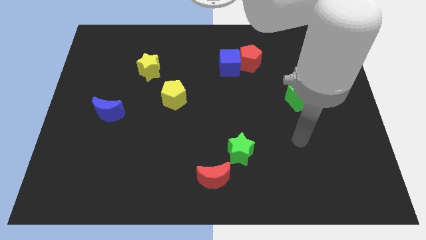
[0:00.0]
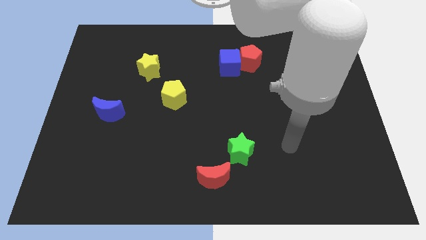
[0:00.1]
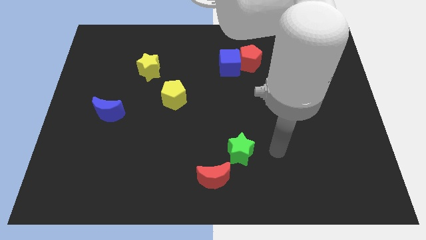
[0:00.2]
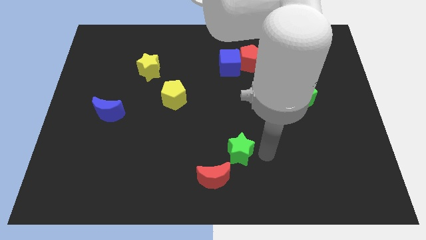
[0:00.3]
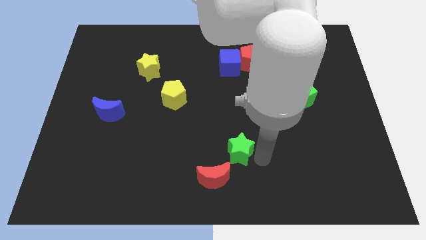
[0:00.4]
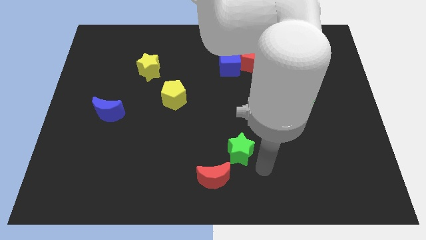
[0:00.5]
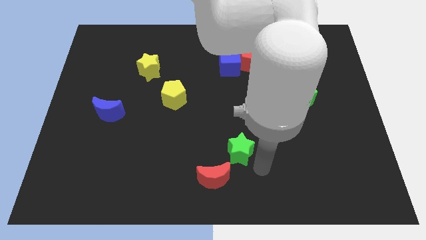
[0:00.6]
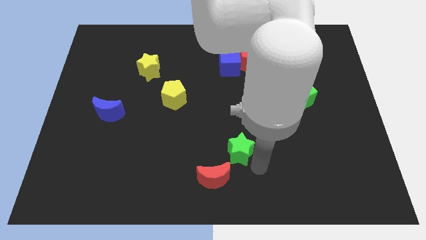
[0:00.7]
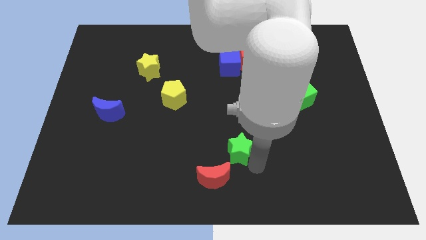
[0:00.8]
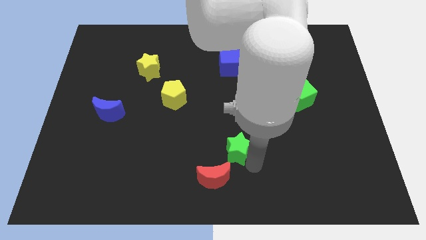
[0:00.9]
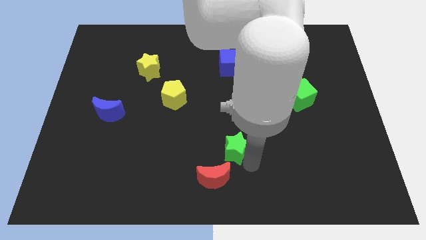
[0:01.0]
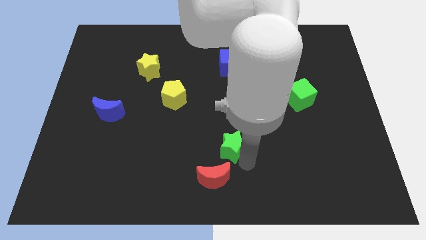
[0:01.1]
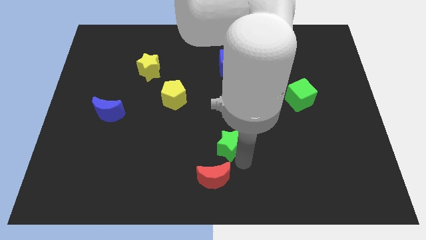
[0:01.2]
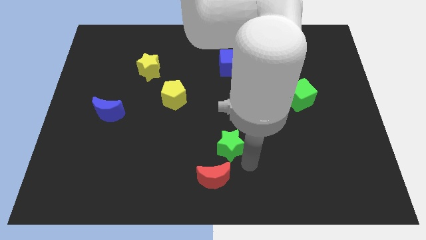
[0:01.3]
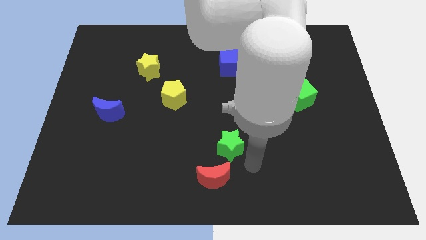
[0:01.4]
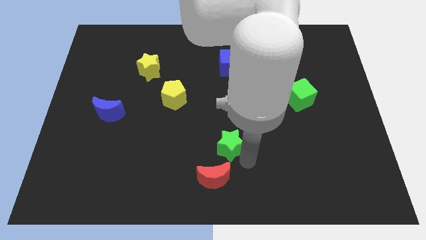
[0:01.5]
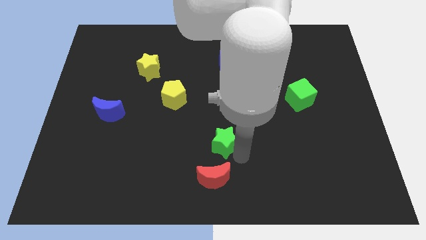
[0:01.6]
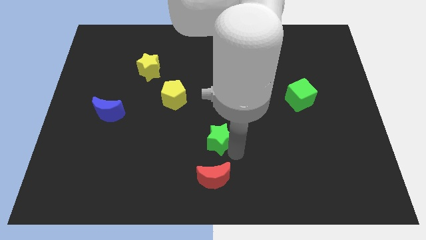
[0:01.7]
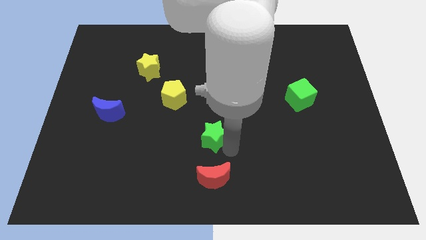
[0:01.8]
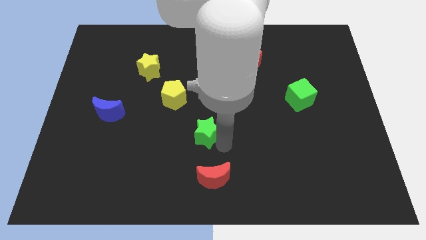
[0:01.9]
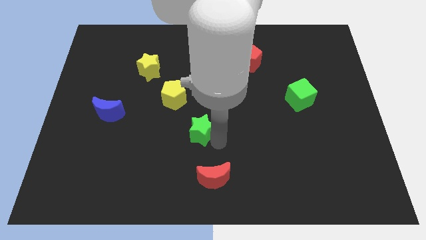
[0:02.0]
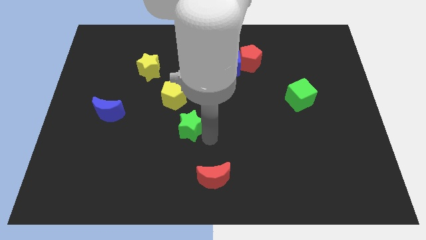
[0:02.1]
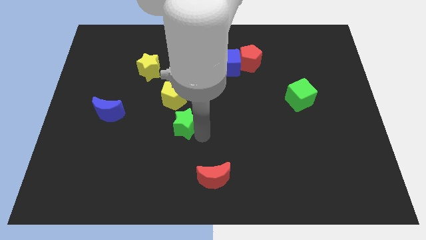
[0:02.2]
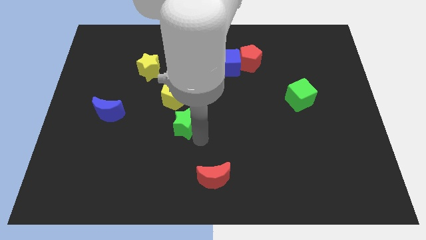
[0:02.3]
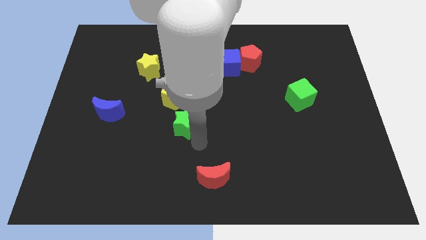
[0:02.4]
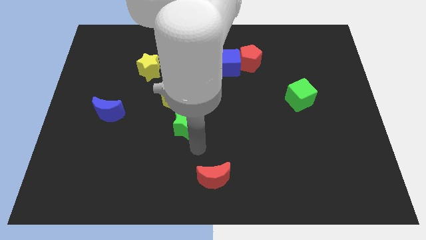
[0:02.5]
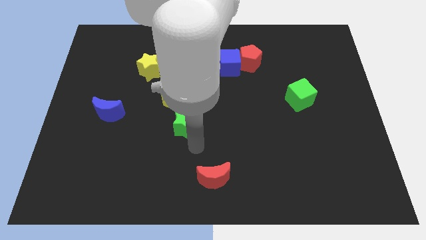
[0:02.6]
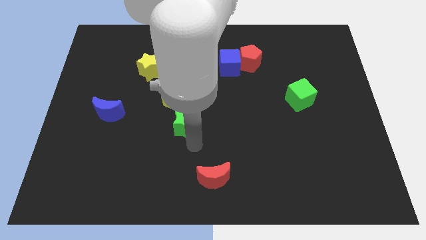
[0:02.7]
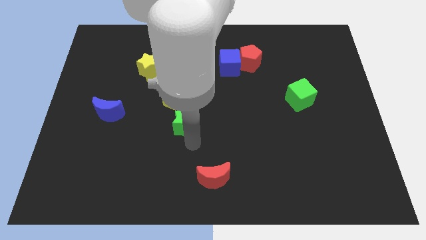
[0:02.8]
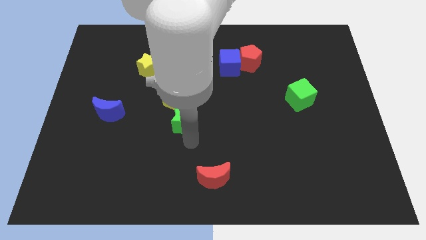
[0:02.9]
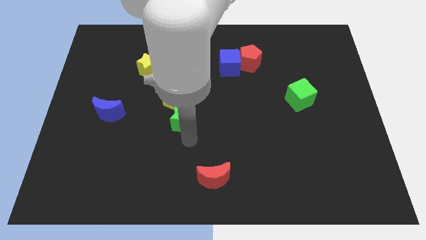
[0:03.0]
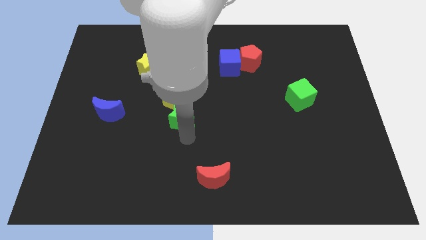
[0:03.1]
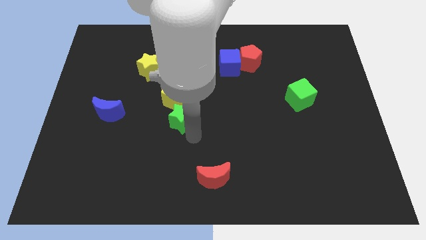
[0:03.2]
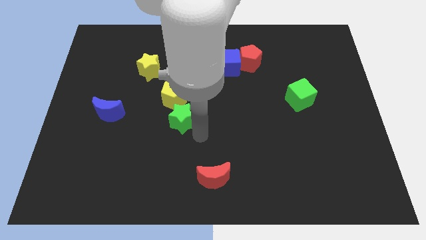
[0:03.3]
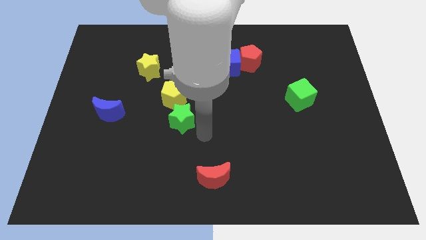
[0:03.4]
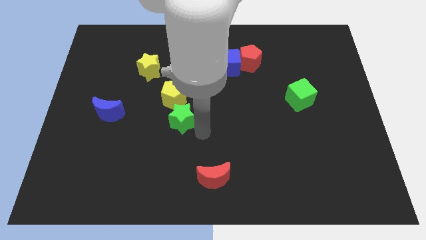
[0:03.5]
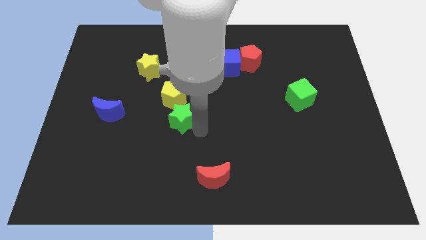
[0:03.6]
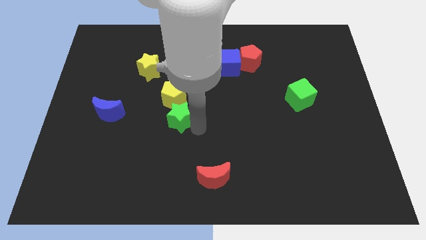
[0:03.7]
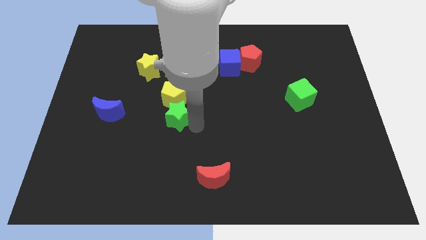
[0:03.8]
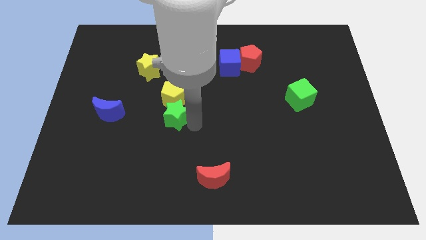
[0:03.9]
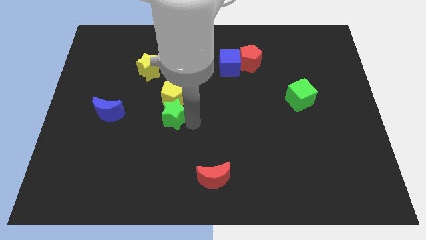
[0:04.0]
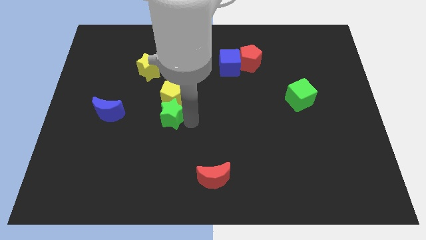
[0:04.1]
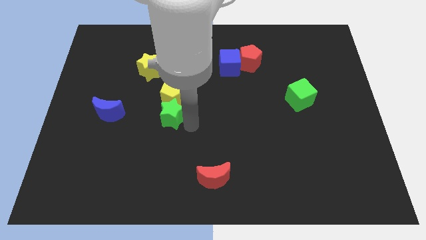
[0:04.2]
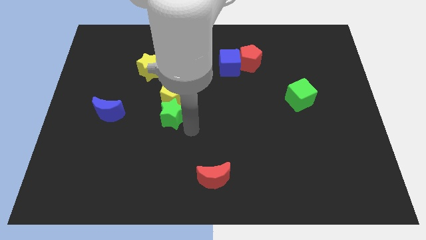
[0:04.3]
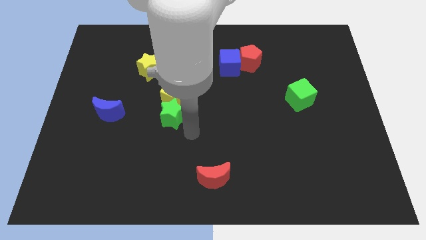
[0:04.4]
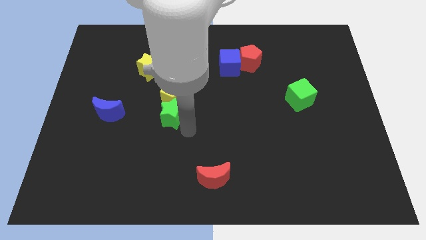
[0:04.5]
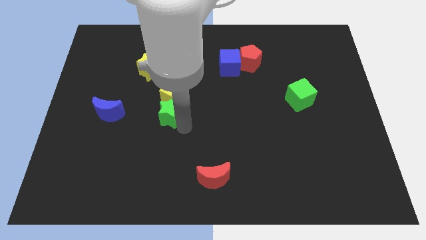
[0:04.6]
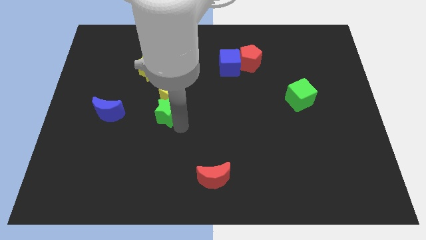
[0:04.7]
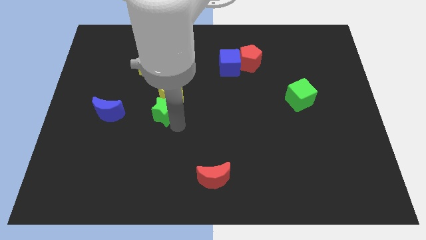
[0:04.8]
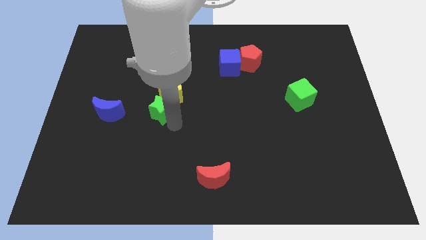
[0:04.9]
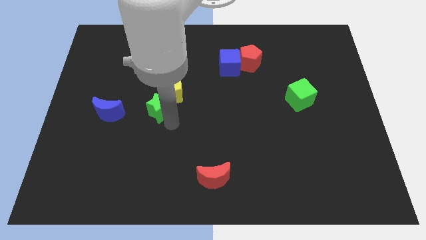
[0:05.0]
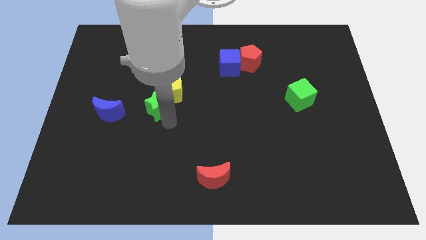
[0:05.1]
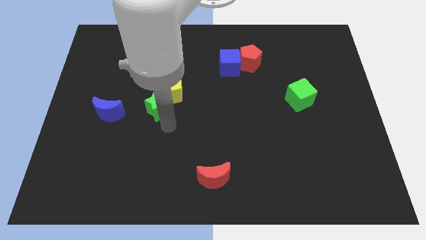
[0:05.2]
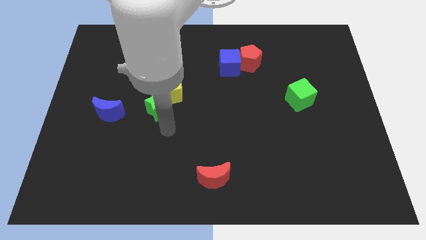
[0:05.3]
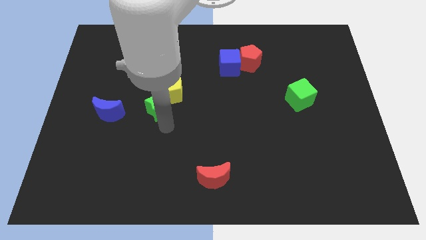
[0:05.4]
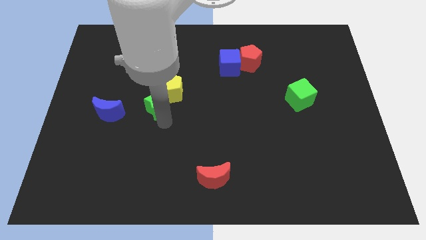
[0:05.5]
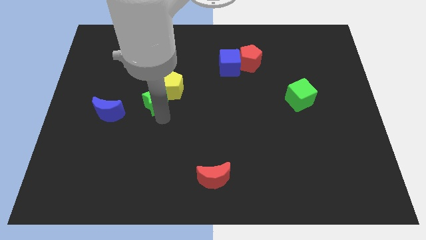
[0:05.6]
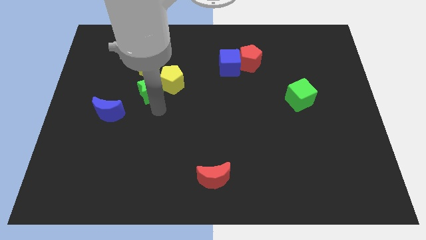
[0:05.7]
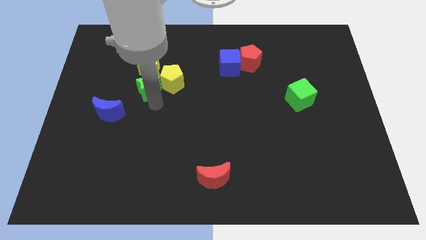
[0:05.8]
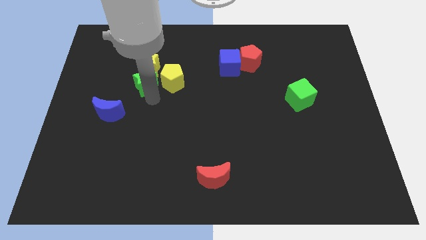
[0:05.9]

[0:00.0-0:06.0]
put the green star towards the yellow star

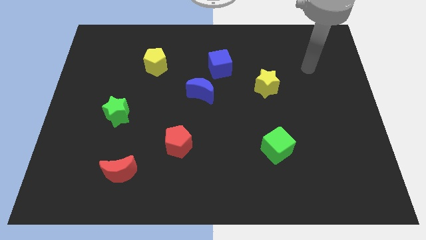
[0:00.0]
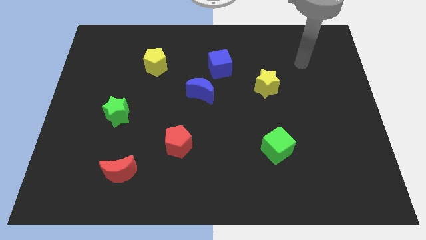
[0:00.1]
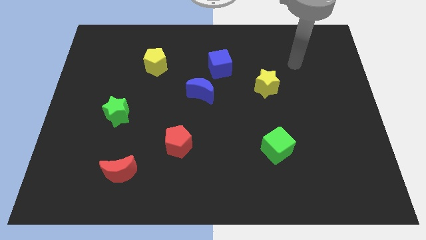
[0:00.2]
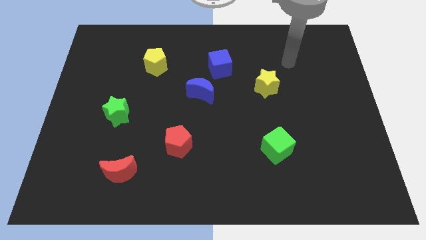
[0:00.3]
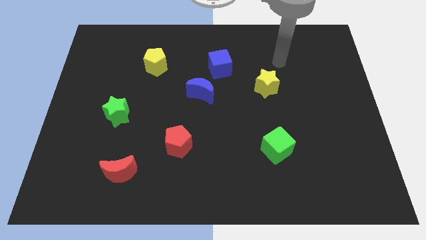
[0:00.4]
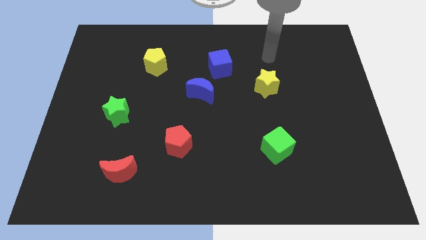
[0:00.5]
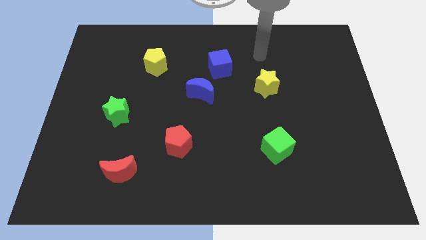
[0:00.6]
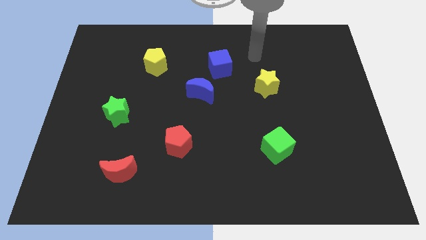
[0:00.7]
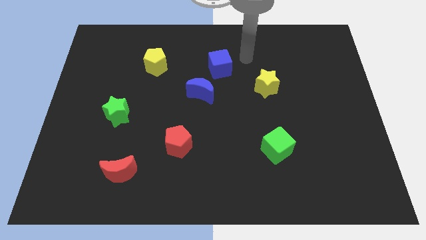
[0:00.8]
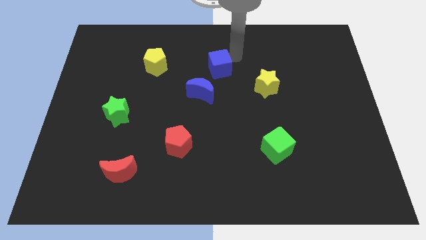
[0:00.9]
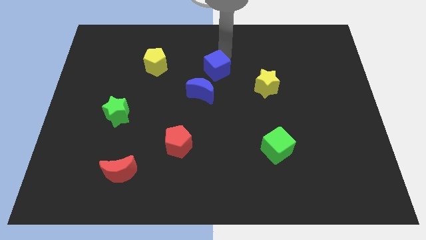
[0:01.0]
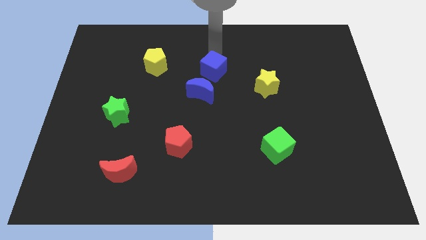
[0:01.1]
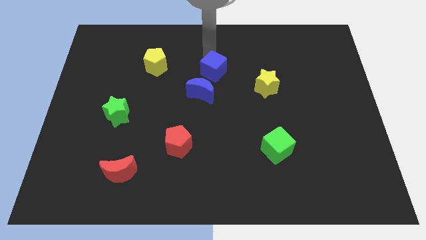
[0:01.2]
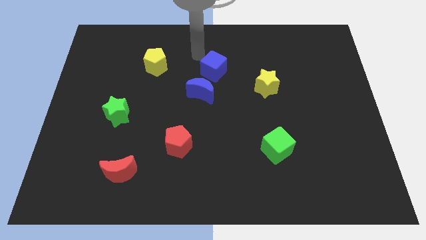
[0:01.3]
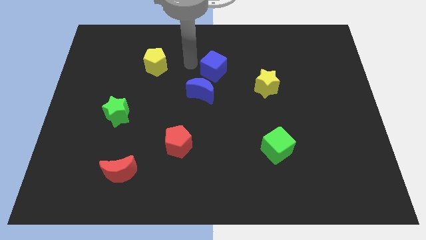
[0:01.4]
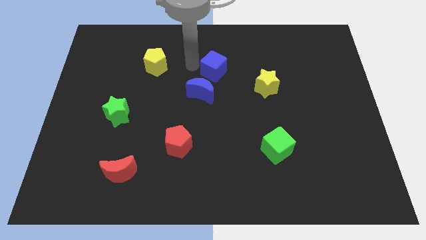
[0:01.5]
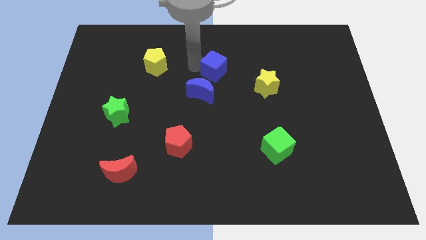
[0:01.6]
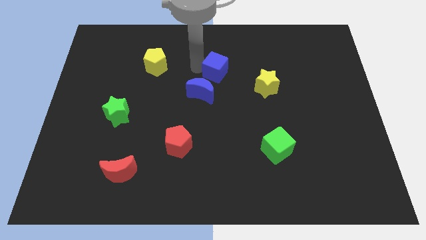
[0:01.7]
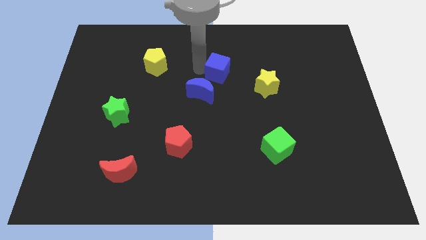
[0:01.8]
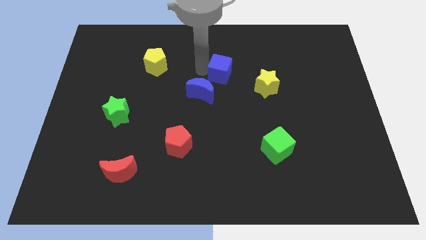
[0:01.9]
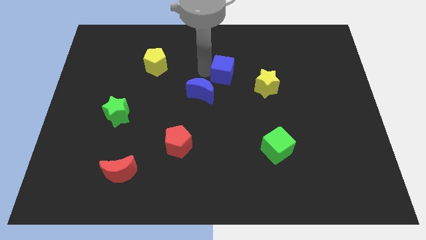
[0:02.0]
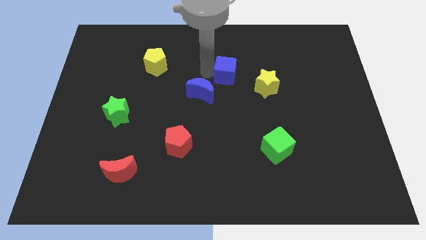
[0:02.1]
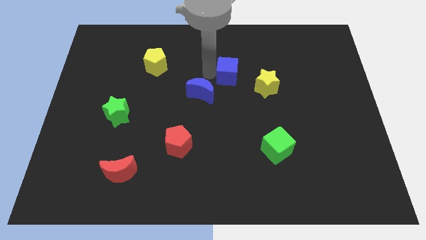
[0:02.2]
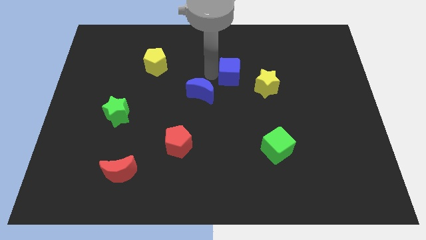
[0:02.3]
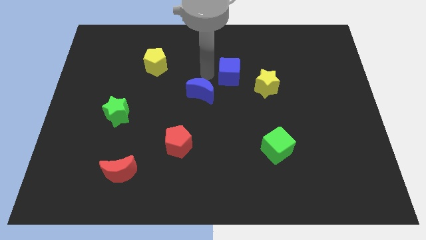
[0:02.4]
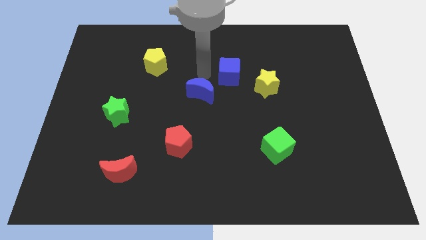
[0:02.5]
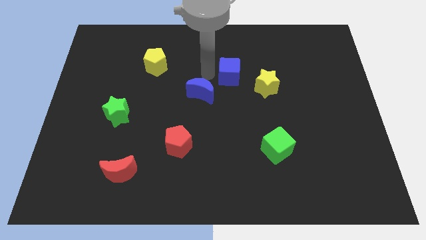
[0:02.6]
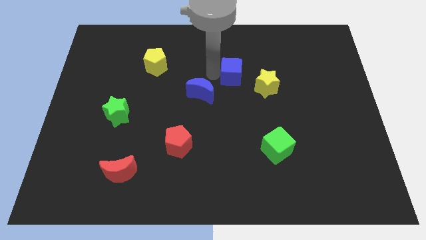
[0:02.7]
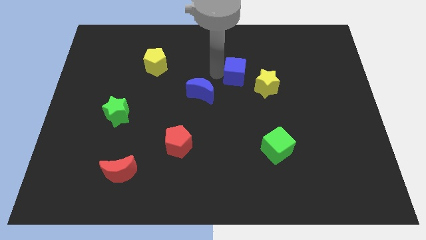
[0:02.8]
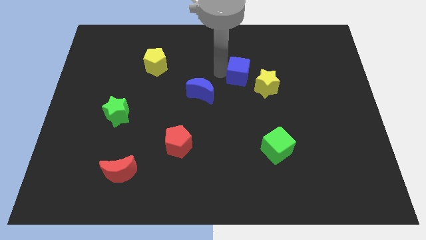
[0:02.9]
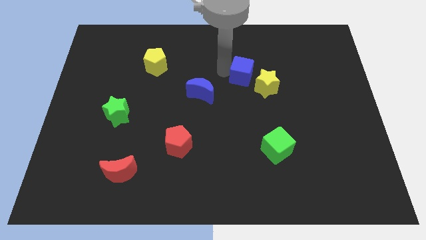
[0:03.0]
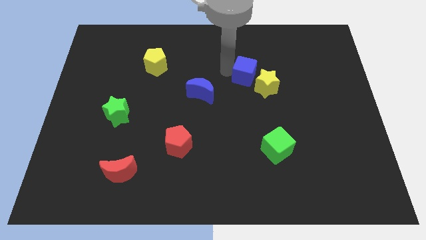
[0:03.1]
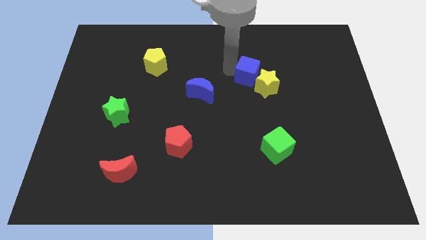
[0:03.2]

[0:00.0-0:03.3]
slide the blue cube to the yellow star
